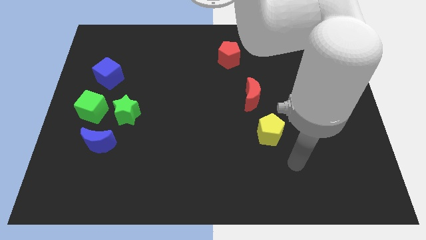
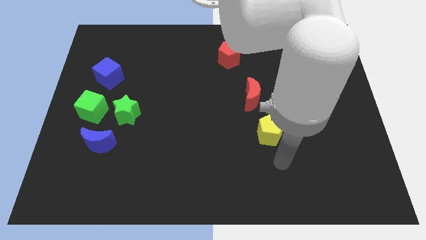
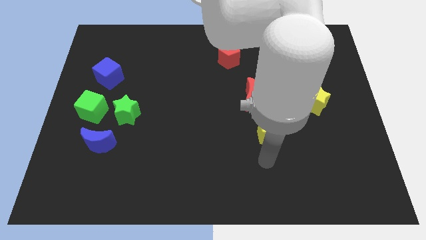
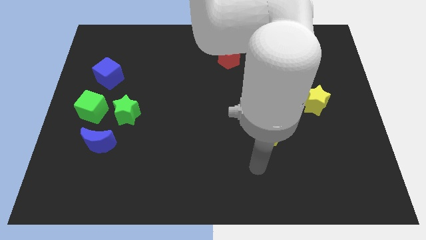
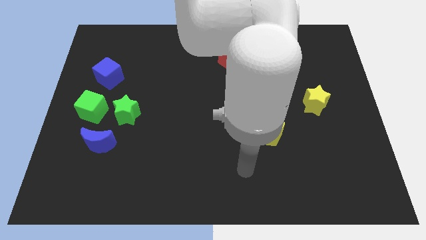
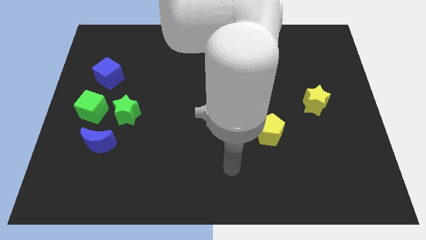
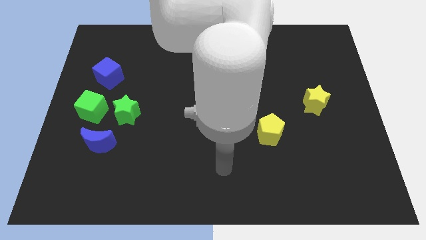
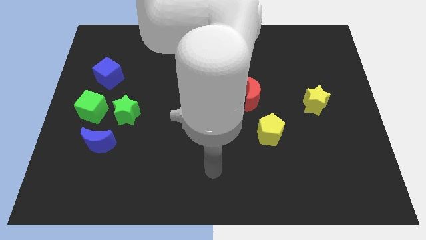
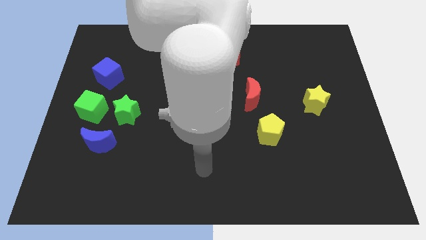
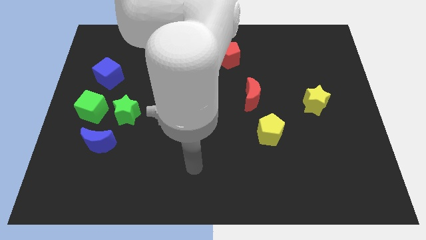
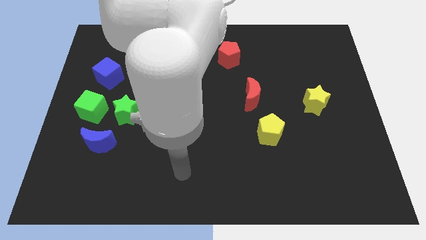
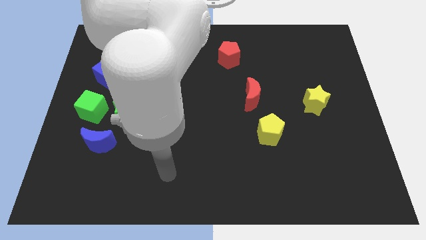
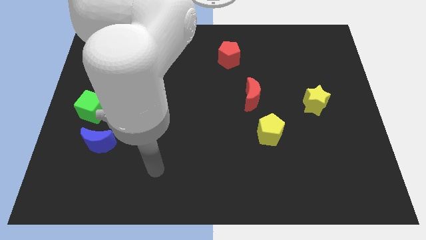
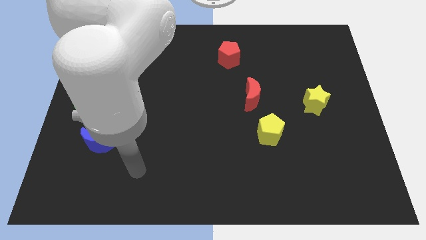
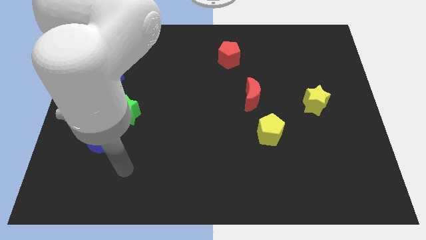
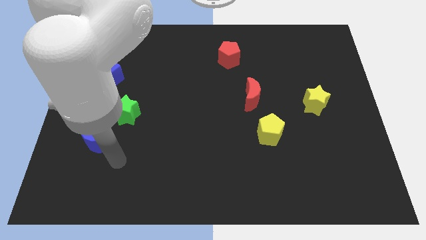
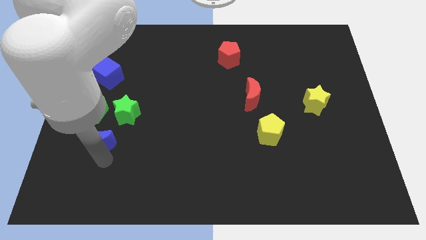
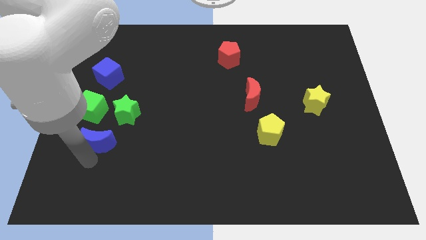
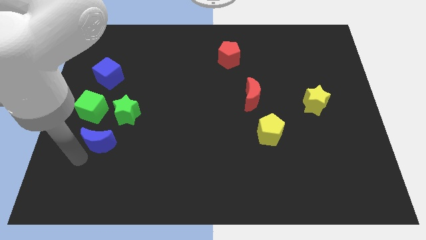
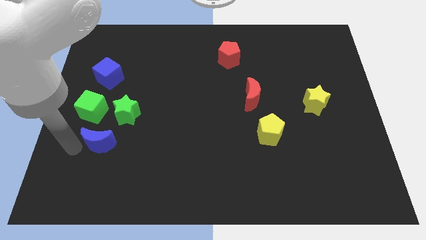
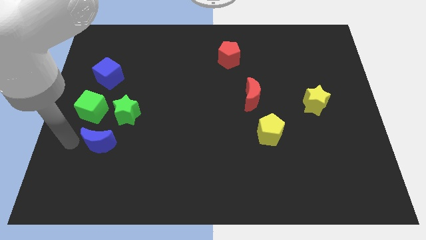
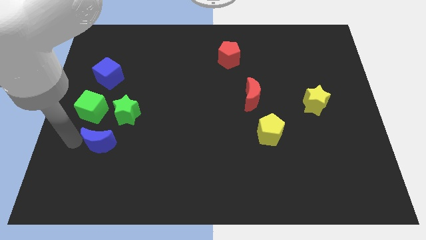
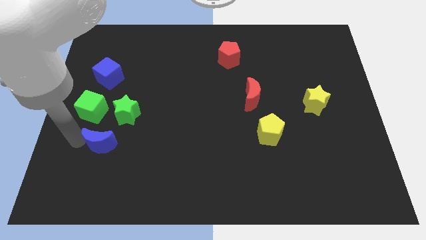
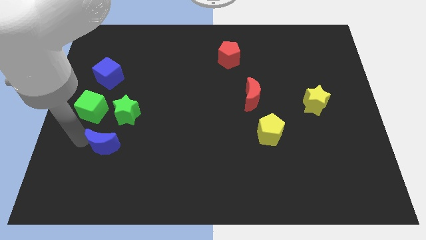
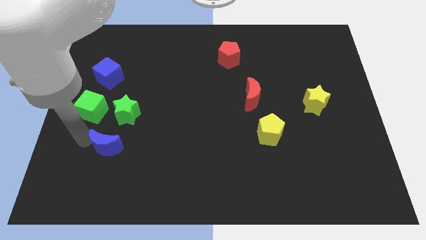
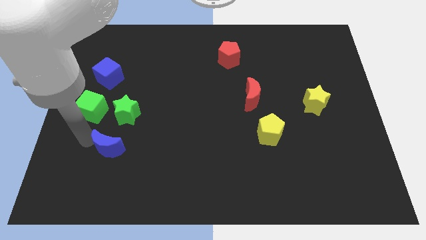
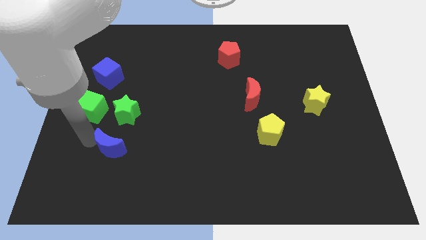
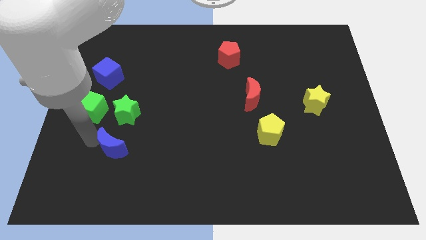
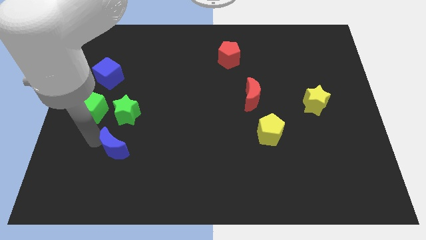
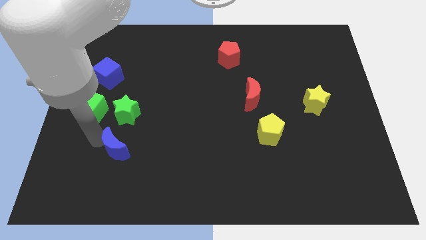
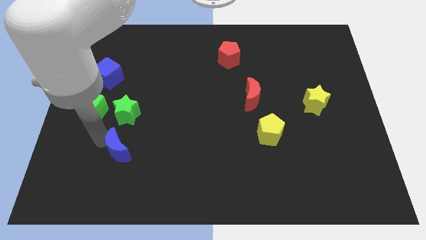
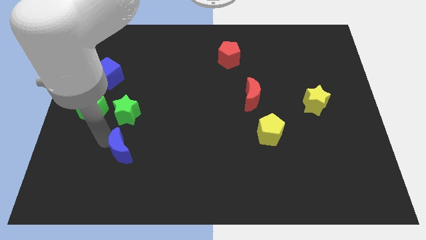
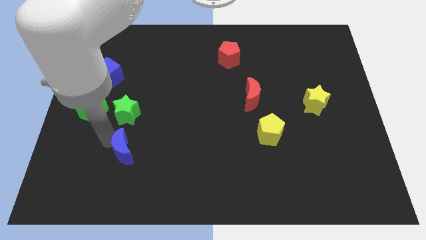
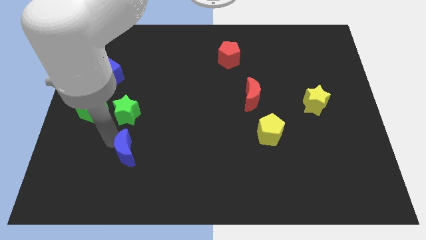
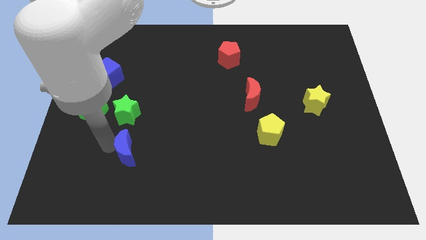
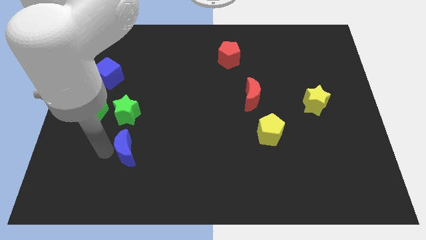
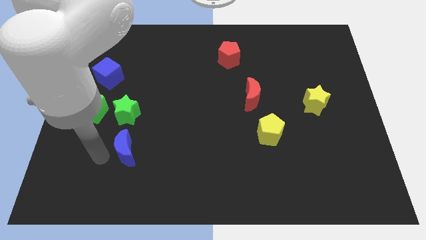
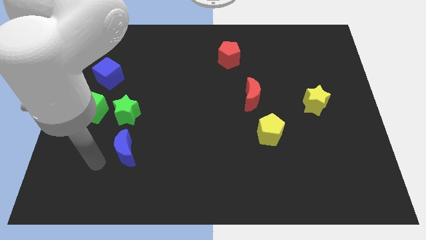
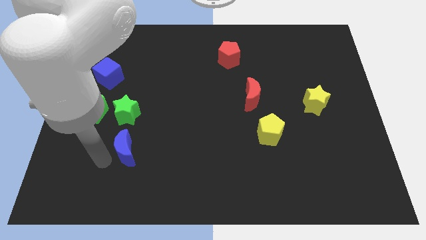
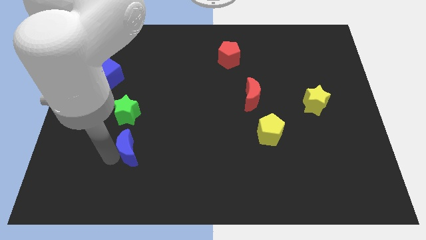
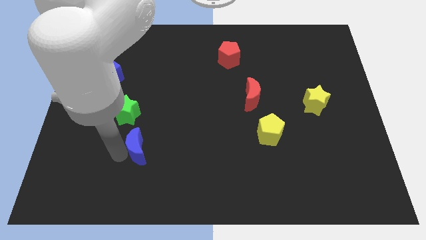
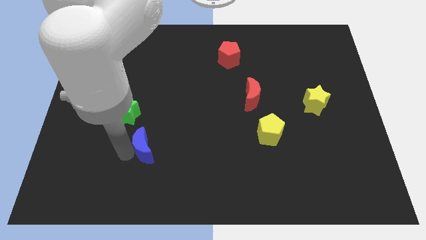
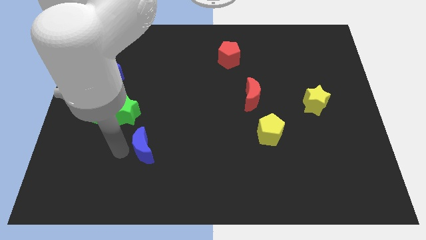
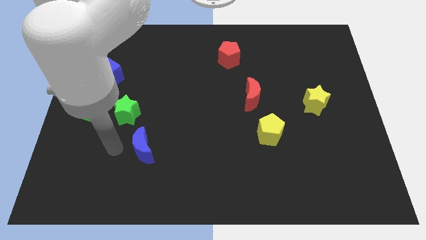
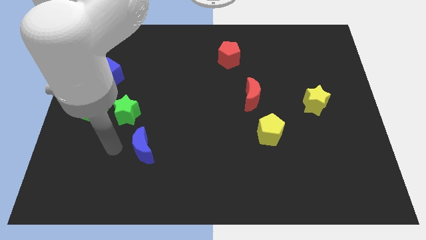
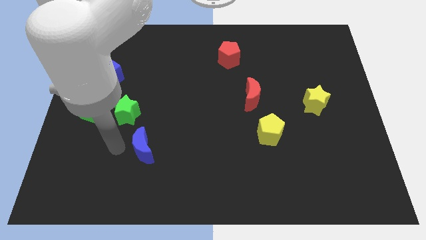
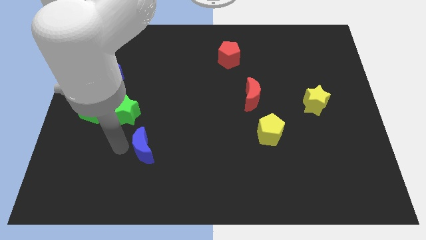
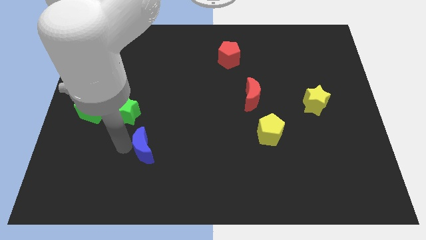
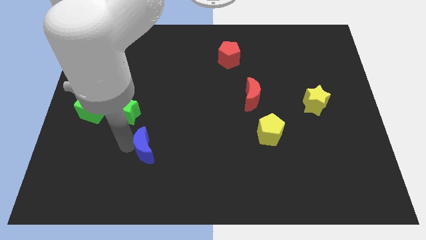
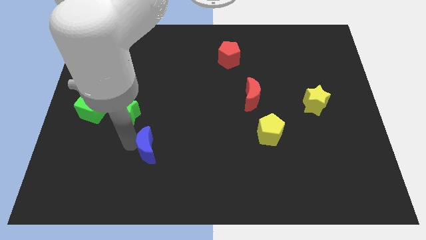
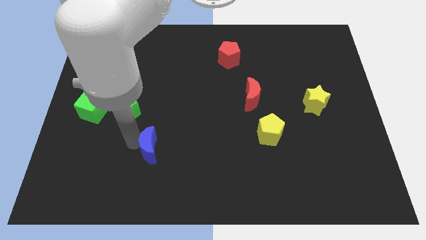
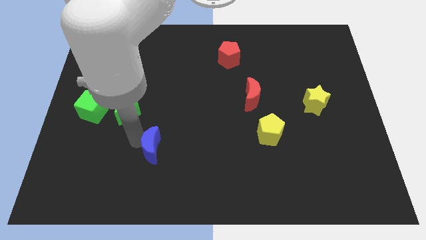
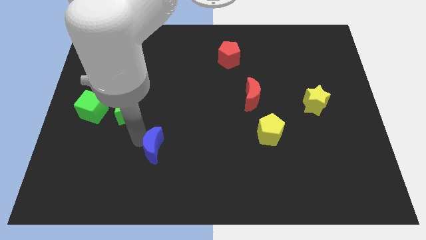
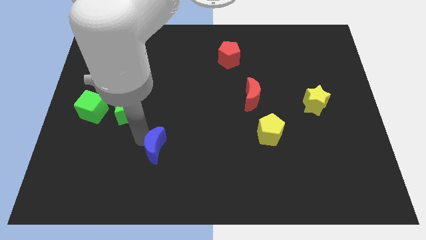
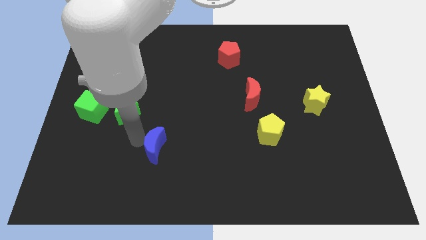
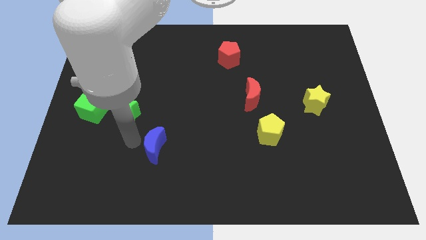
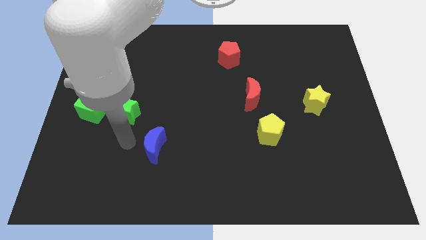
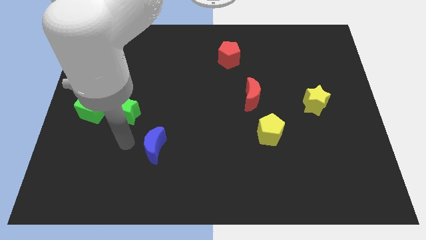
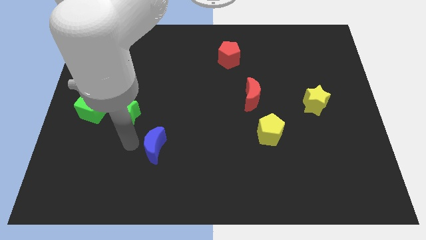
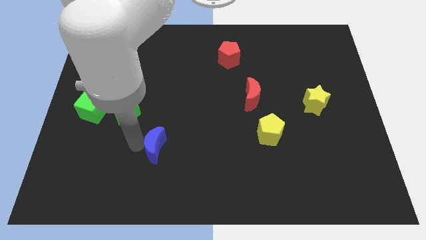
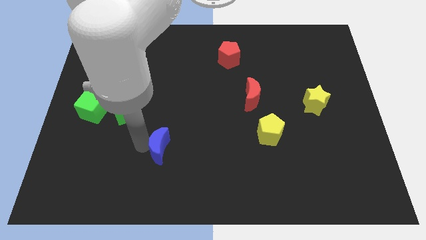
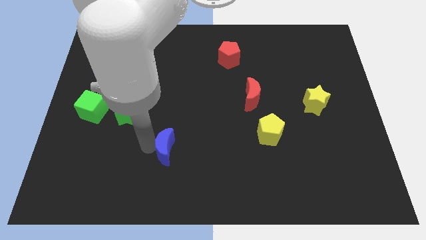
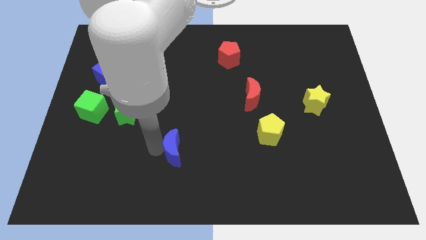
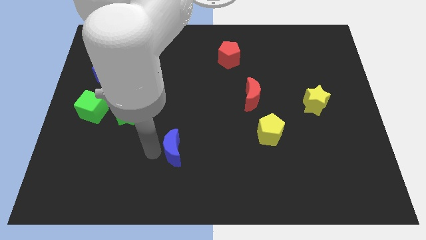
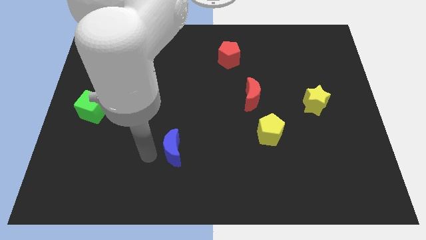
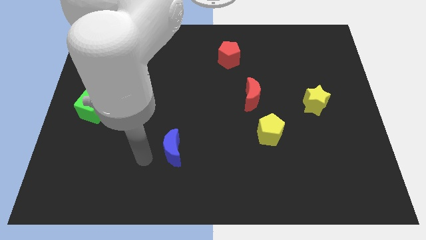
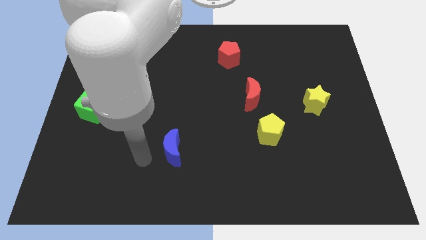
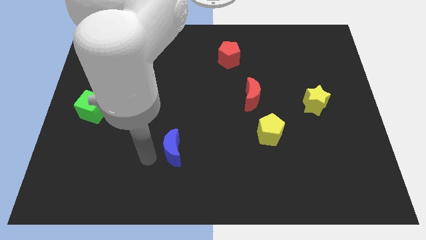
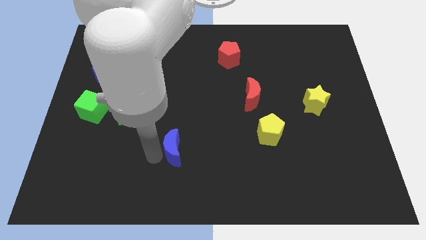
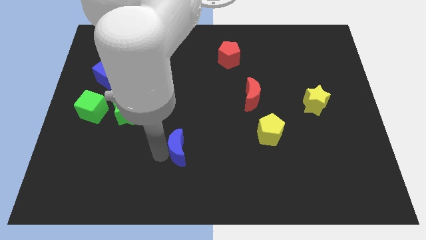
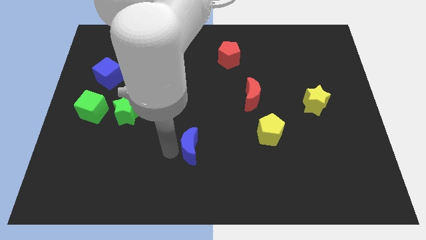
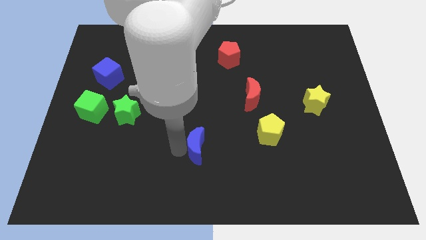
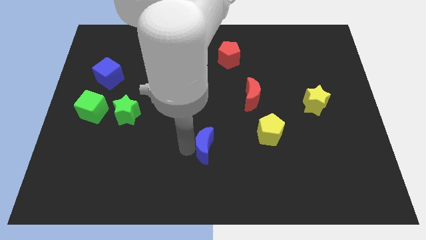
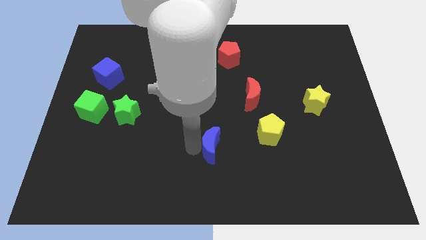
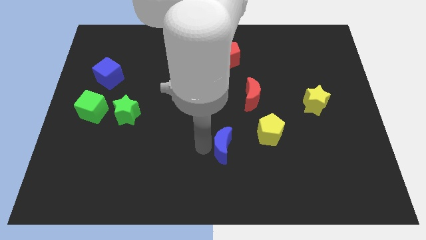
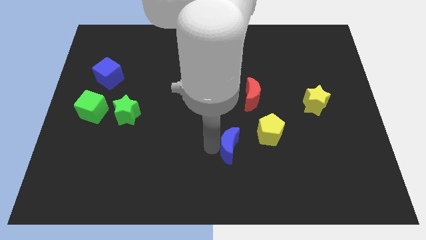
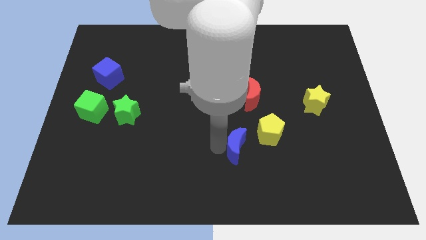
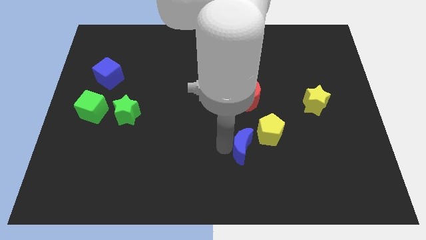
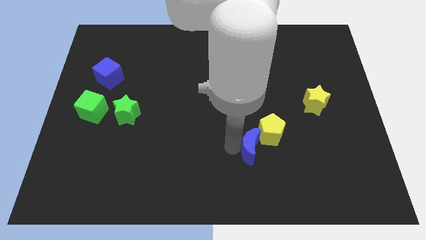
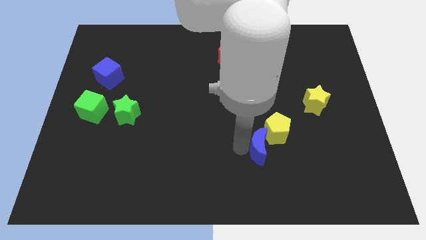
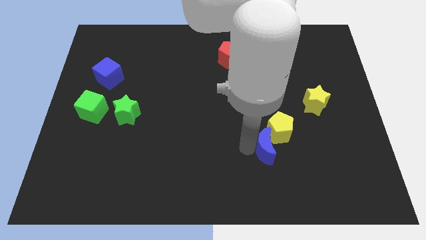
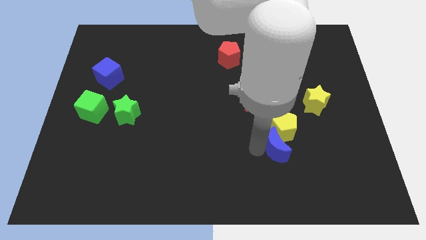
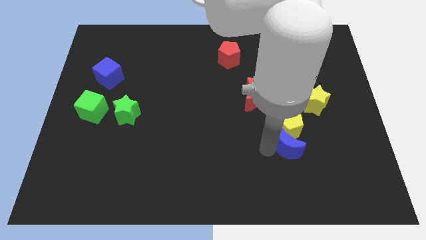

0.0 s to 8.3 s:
move the blue moon diagonally down and to the right of the yellow pentagon

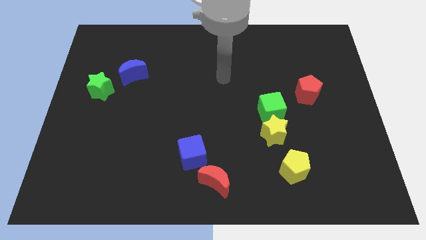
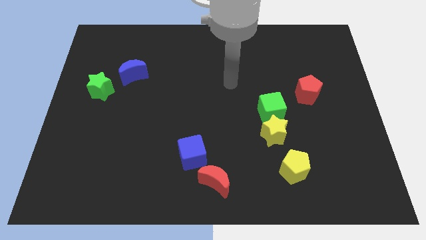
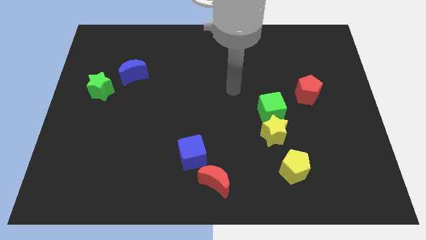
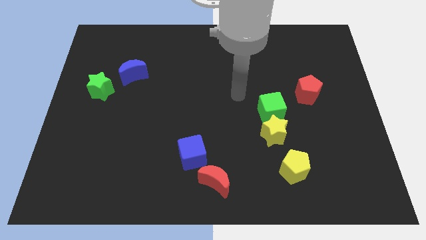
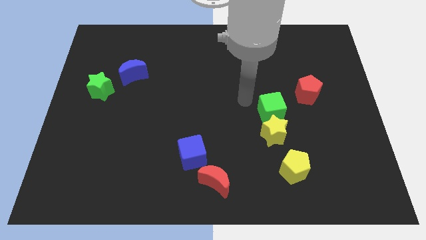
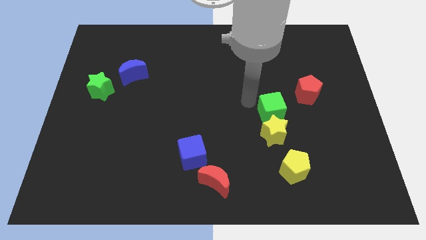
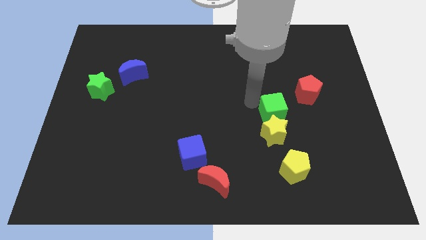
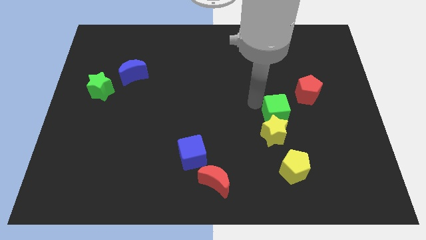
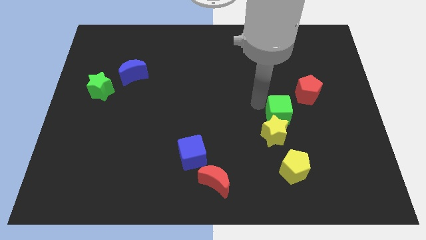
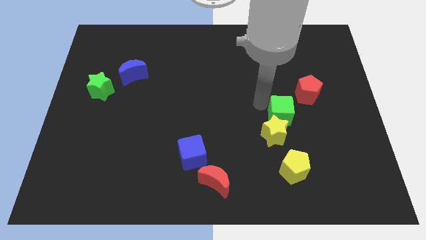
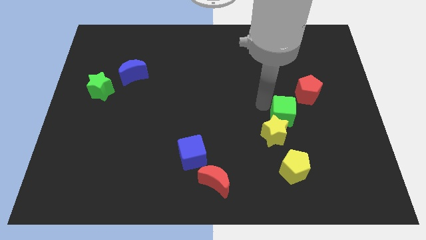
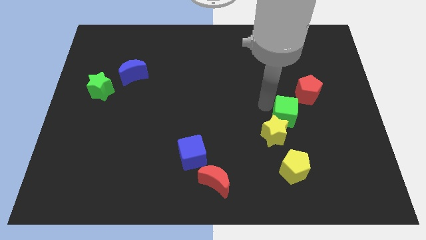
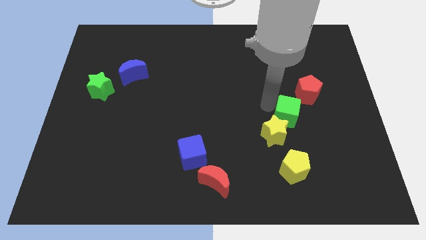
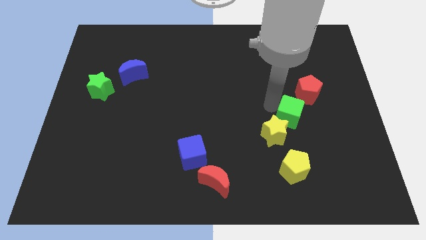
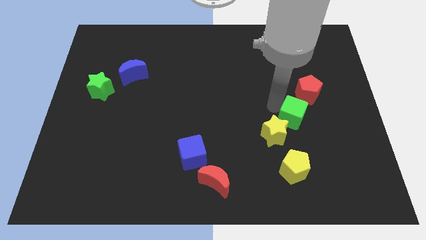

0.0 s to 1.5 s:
push the green cube below the red pentagon
